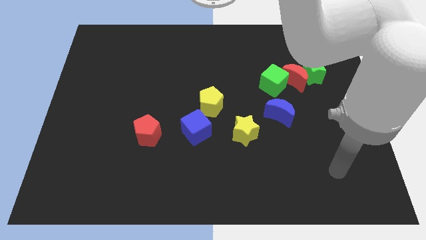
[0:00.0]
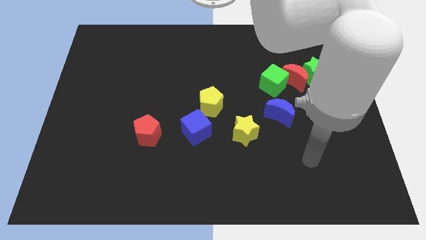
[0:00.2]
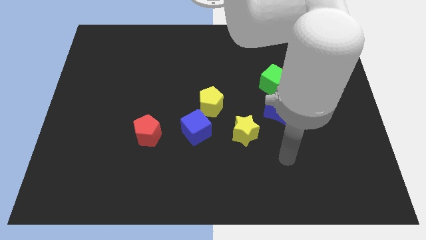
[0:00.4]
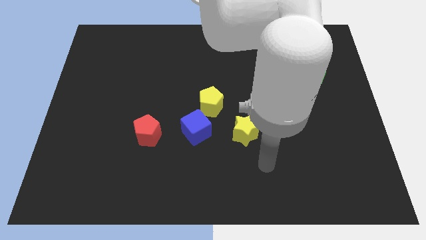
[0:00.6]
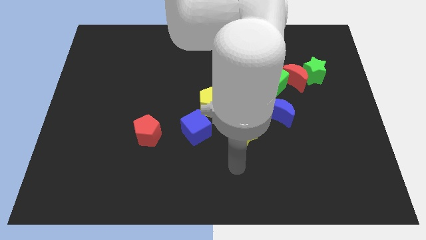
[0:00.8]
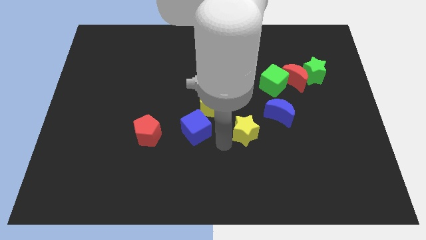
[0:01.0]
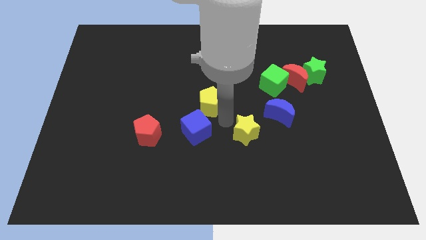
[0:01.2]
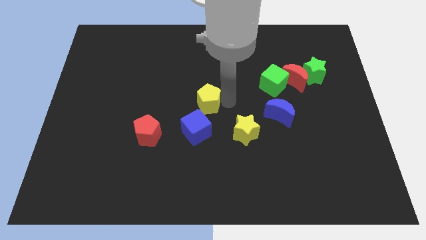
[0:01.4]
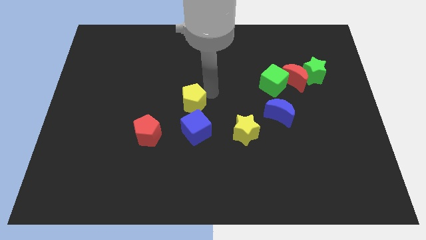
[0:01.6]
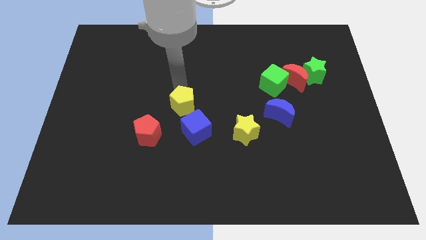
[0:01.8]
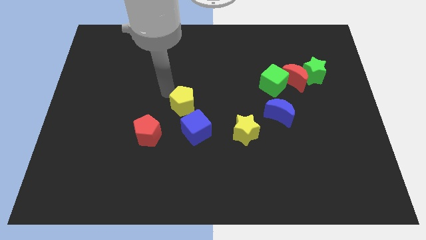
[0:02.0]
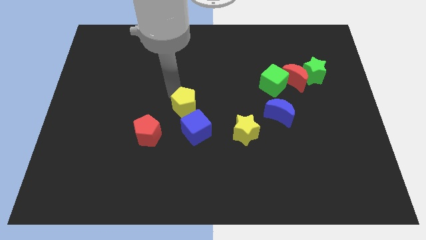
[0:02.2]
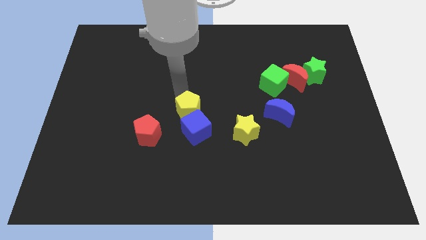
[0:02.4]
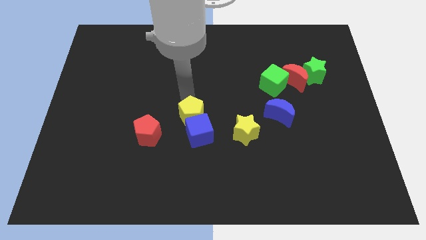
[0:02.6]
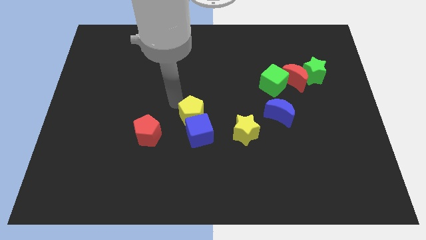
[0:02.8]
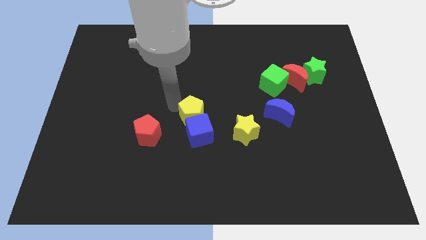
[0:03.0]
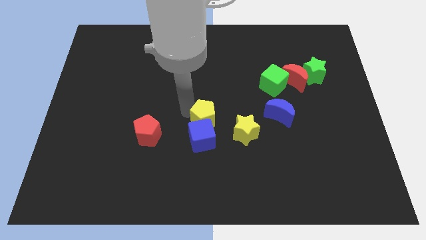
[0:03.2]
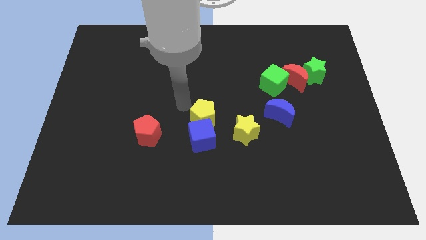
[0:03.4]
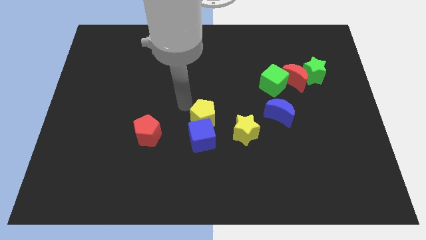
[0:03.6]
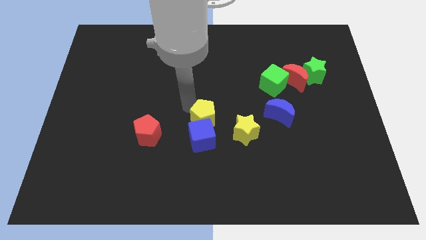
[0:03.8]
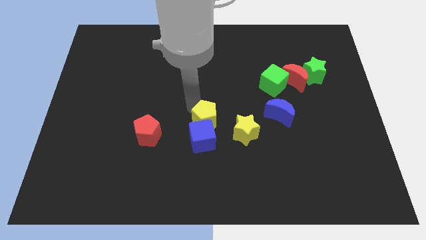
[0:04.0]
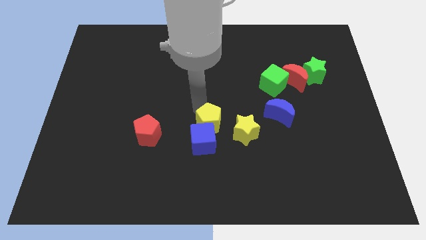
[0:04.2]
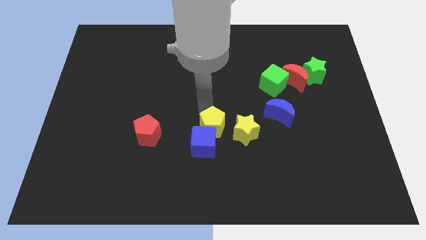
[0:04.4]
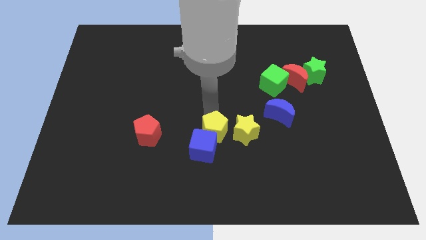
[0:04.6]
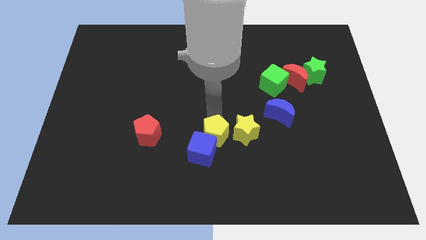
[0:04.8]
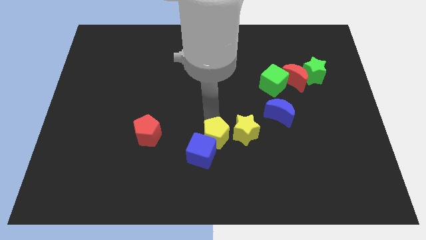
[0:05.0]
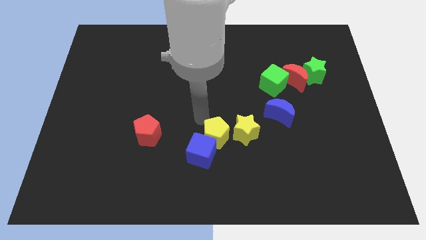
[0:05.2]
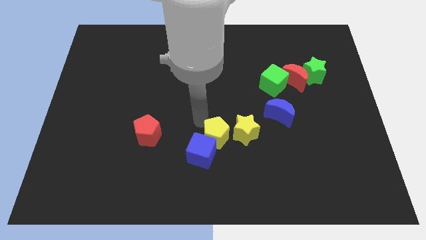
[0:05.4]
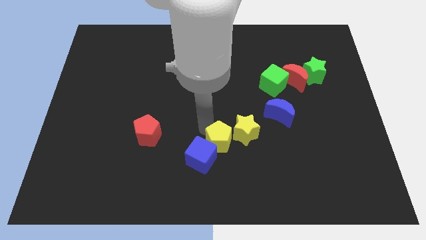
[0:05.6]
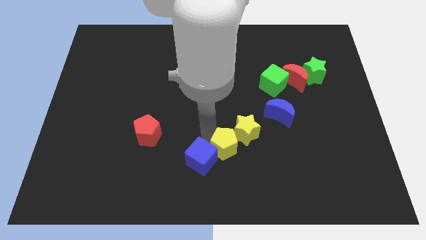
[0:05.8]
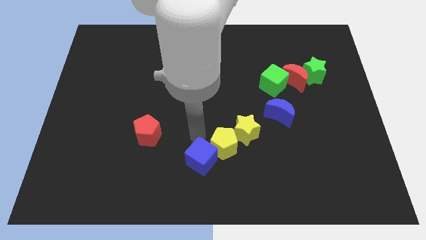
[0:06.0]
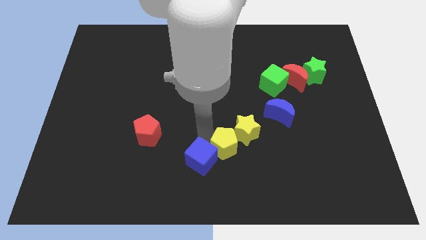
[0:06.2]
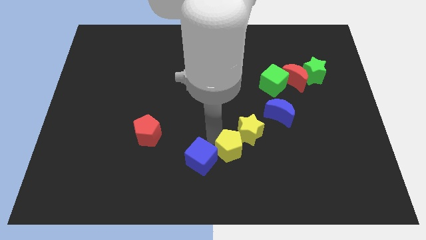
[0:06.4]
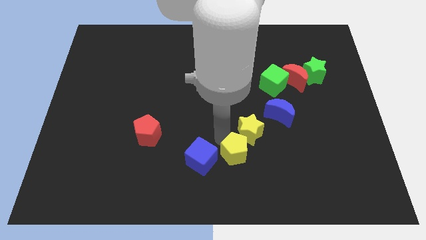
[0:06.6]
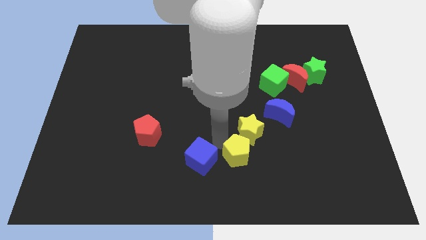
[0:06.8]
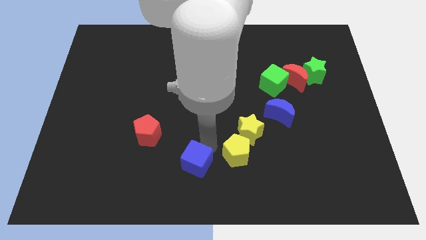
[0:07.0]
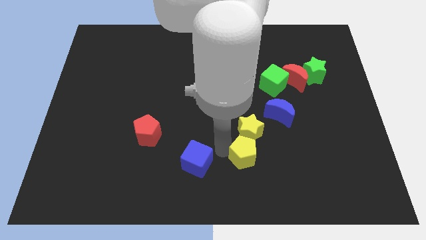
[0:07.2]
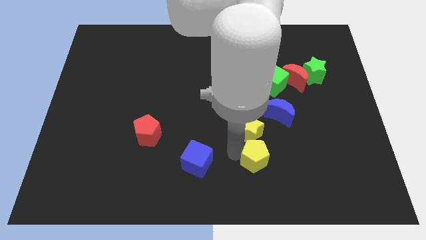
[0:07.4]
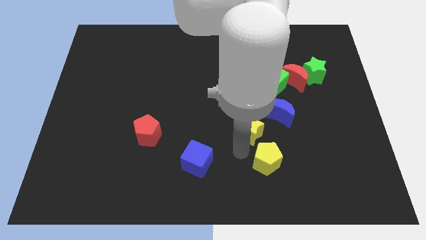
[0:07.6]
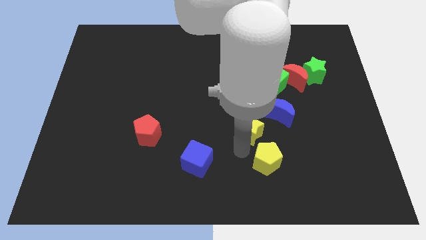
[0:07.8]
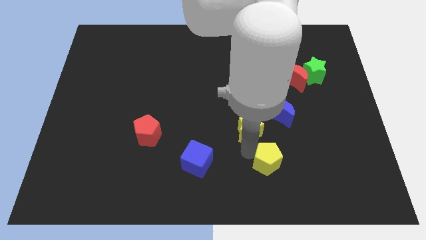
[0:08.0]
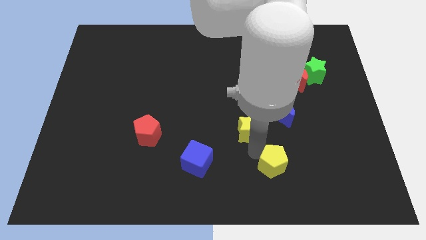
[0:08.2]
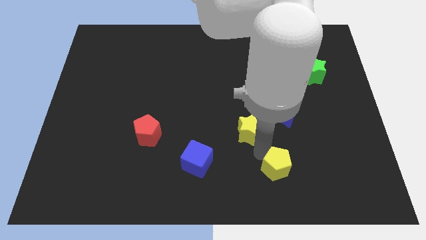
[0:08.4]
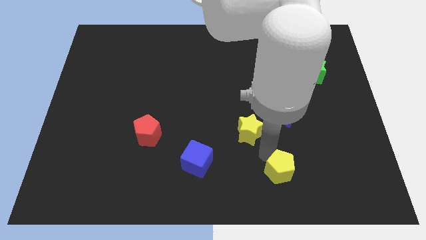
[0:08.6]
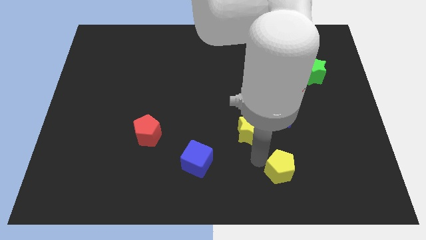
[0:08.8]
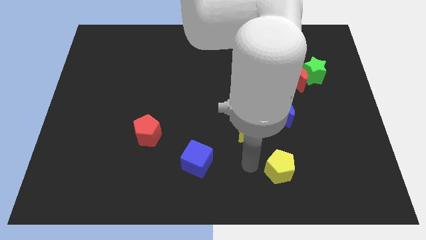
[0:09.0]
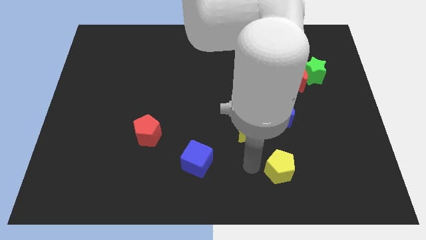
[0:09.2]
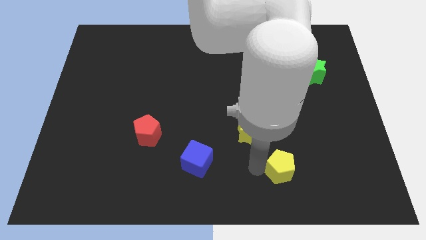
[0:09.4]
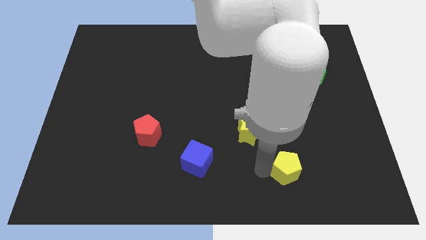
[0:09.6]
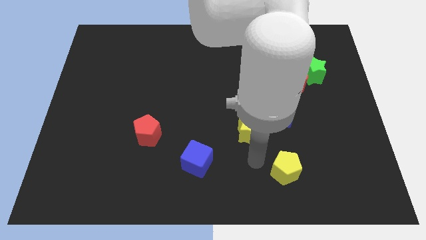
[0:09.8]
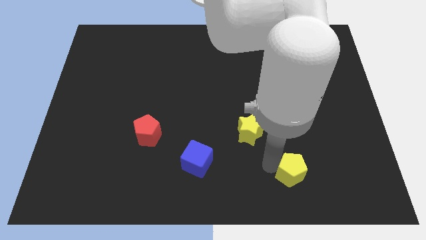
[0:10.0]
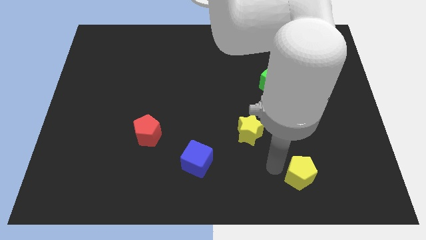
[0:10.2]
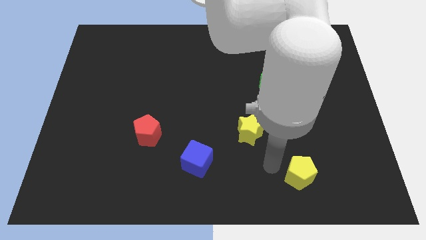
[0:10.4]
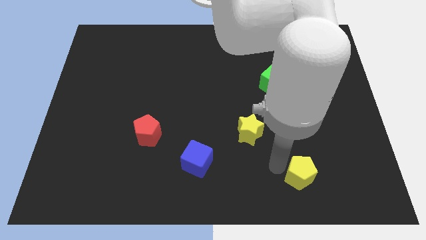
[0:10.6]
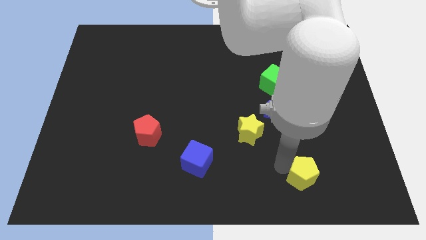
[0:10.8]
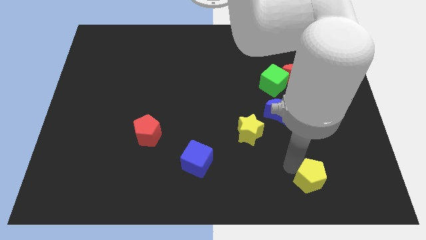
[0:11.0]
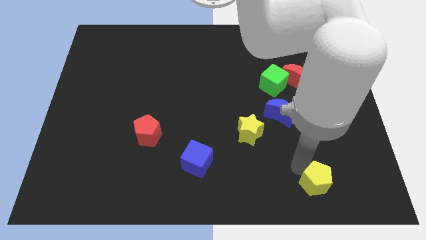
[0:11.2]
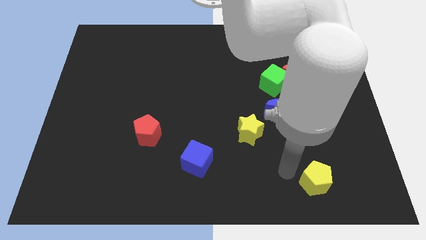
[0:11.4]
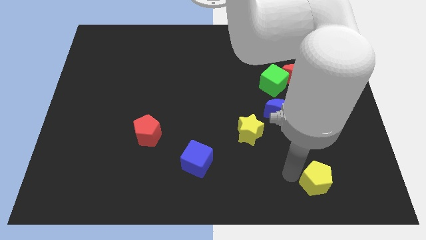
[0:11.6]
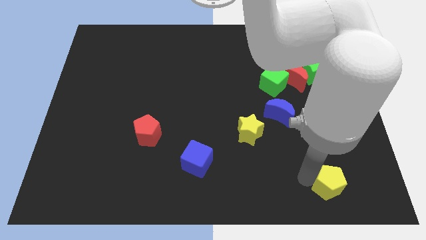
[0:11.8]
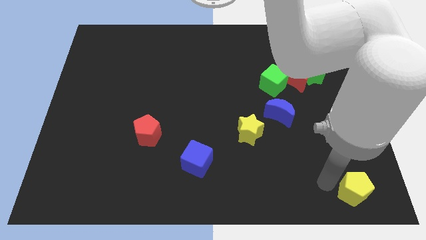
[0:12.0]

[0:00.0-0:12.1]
slide the yellow pentagon to the lower right corner
